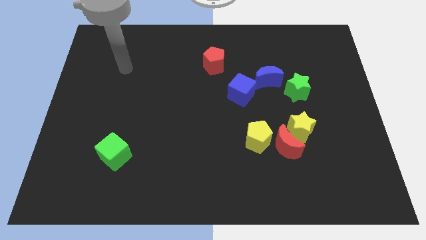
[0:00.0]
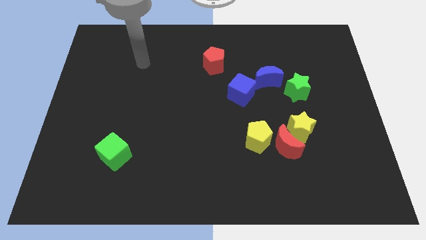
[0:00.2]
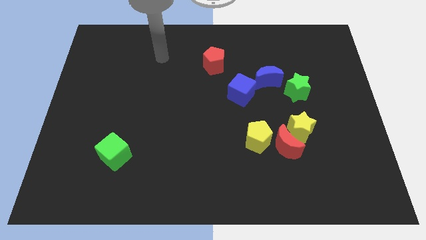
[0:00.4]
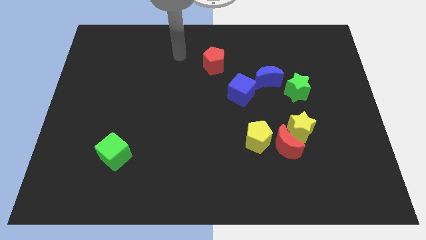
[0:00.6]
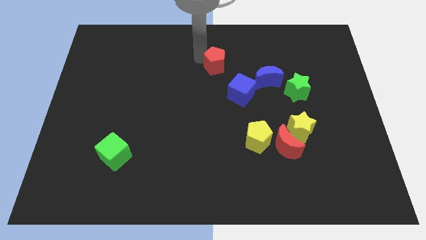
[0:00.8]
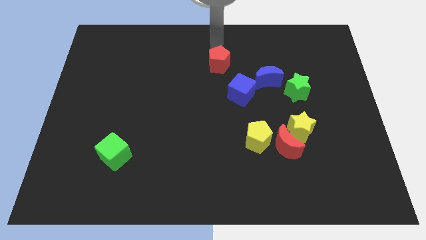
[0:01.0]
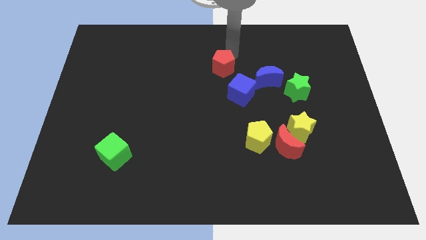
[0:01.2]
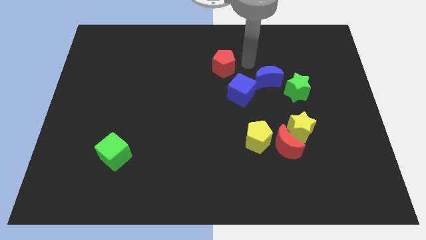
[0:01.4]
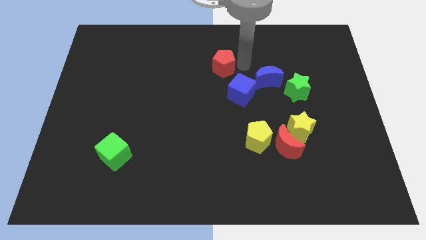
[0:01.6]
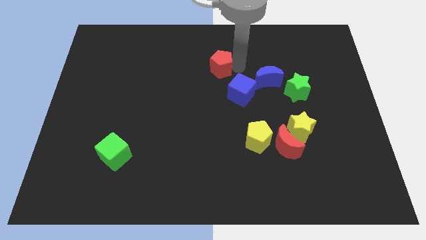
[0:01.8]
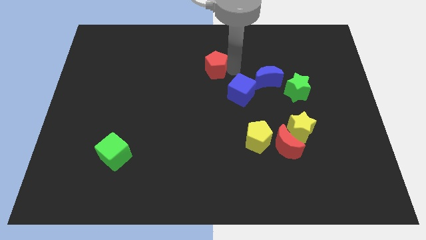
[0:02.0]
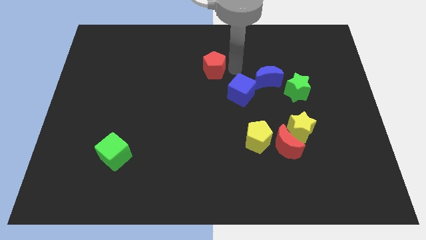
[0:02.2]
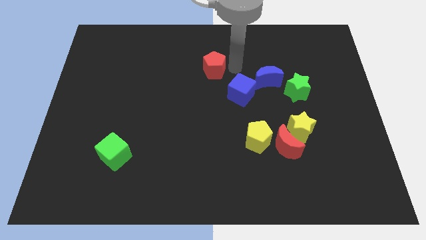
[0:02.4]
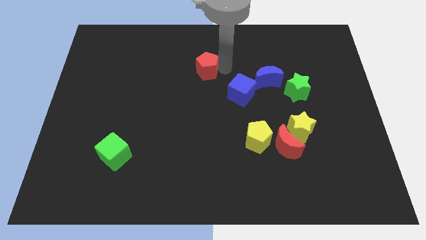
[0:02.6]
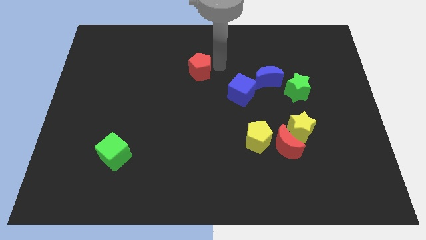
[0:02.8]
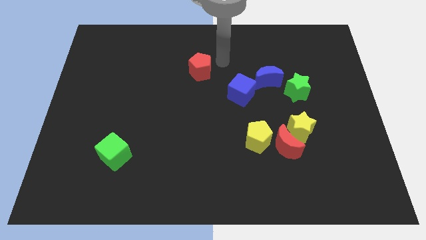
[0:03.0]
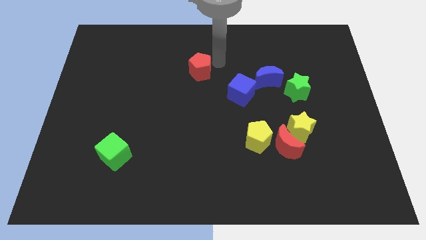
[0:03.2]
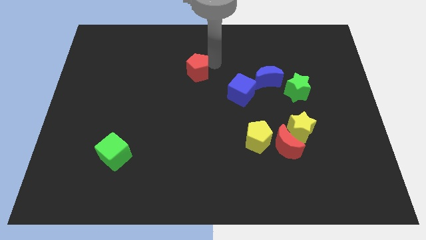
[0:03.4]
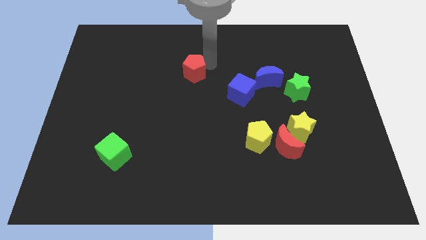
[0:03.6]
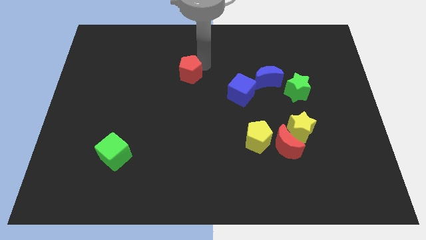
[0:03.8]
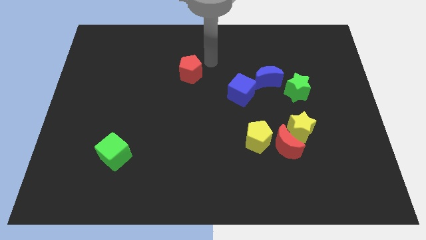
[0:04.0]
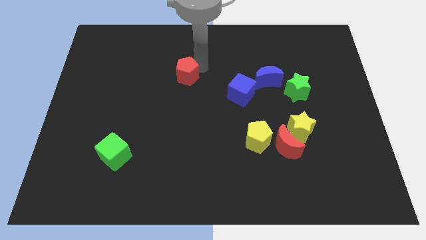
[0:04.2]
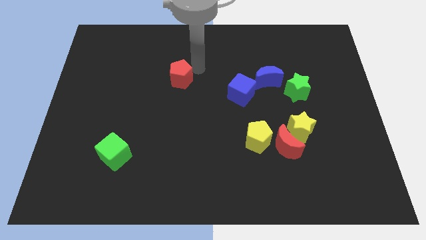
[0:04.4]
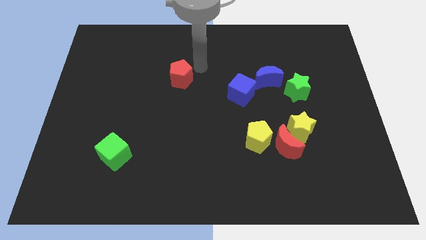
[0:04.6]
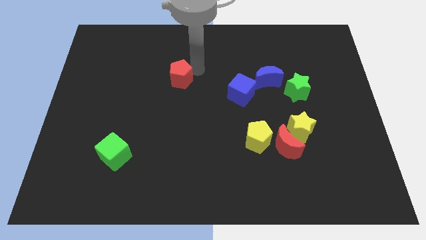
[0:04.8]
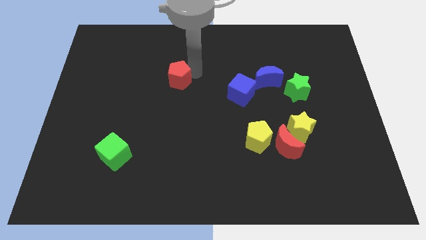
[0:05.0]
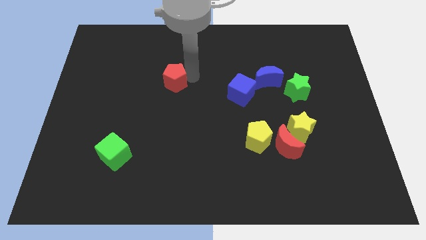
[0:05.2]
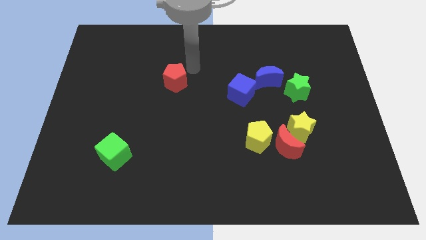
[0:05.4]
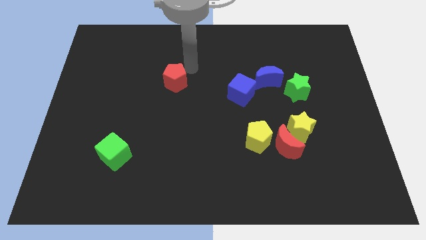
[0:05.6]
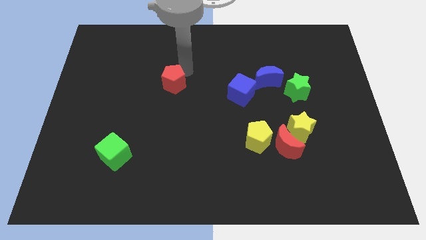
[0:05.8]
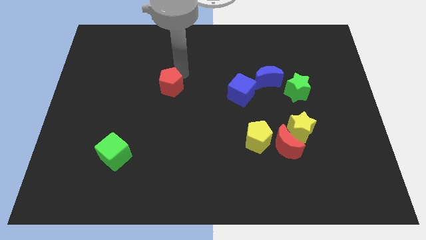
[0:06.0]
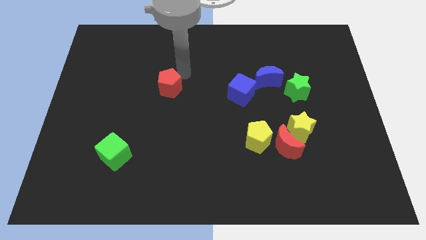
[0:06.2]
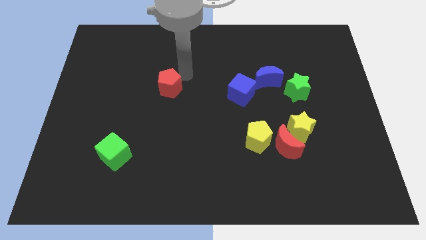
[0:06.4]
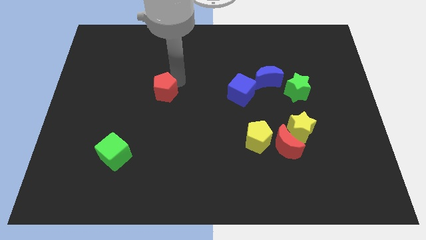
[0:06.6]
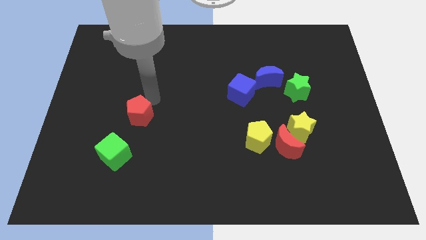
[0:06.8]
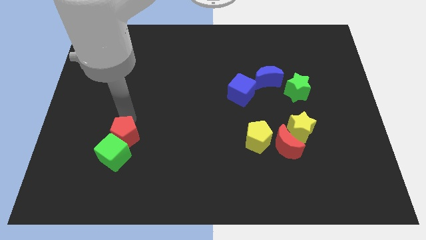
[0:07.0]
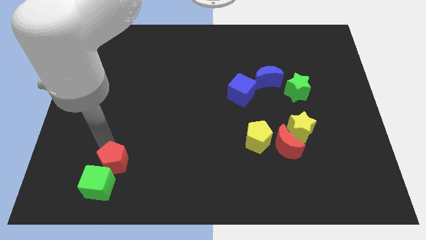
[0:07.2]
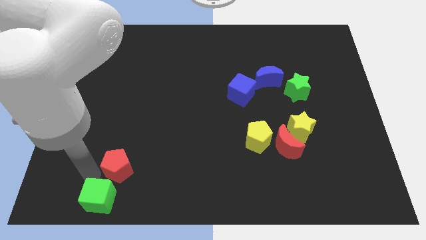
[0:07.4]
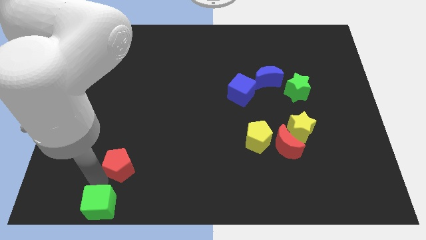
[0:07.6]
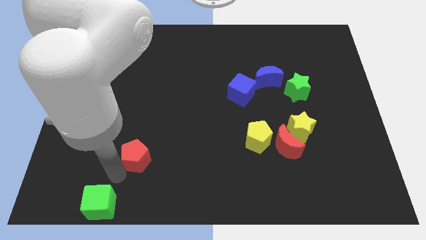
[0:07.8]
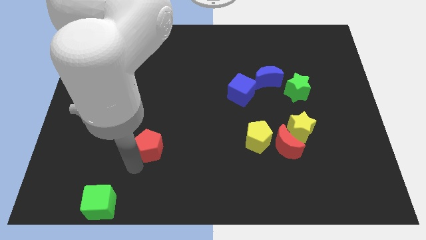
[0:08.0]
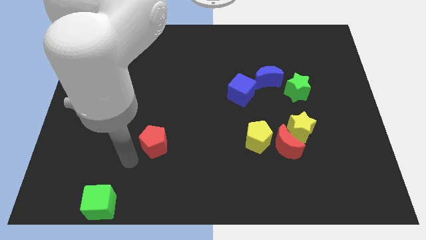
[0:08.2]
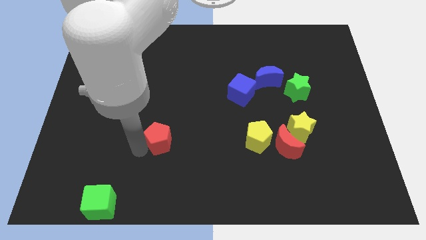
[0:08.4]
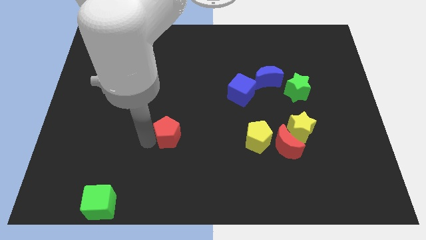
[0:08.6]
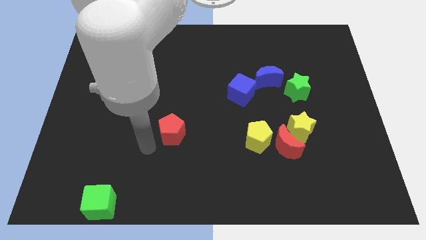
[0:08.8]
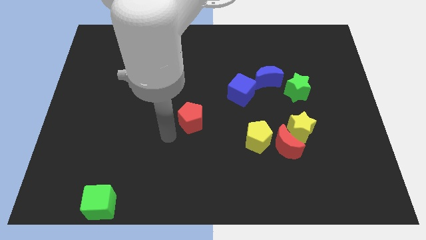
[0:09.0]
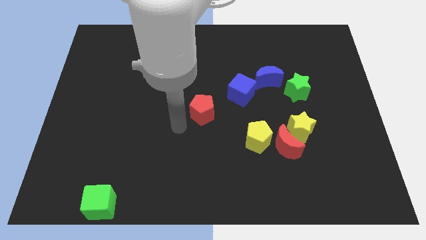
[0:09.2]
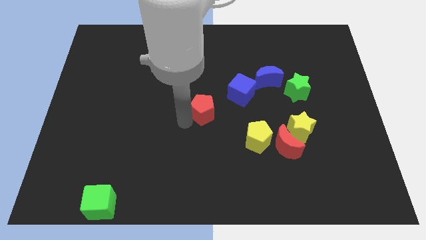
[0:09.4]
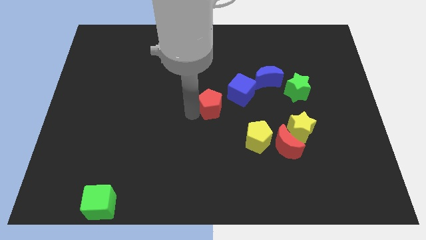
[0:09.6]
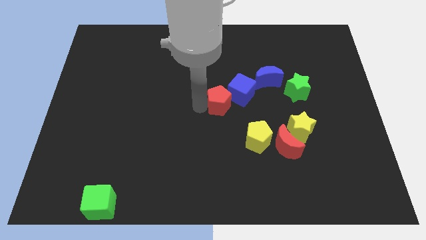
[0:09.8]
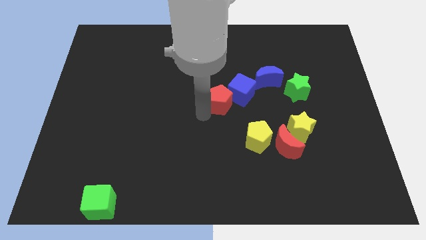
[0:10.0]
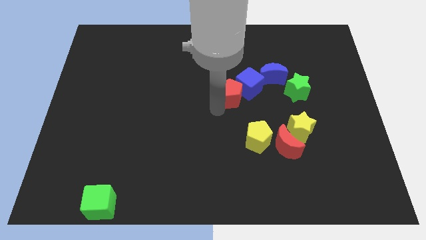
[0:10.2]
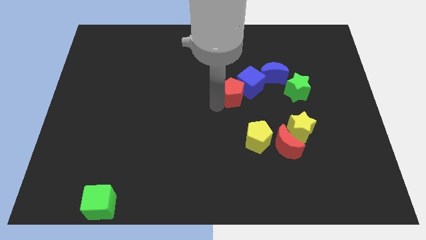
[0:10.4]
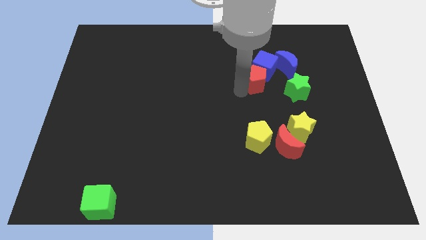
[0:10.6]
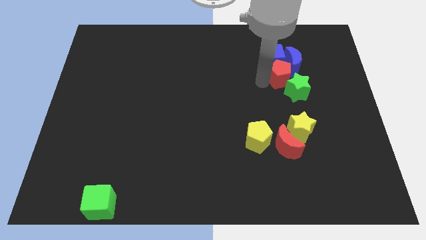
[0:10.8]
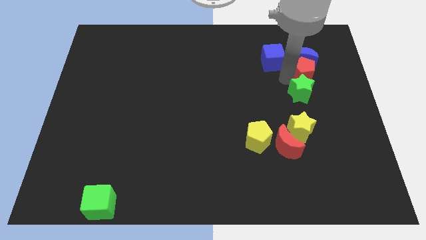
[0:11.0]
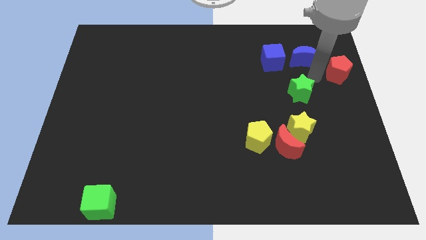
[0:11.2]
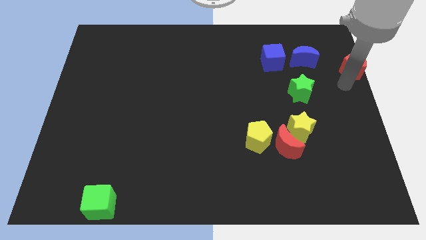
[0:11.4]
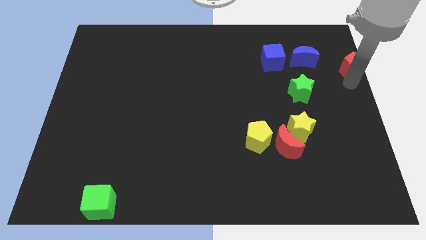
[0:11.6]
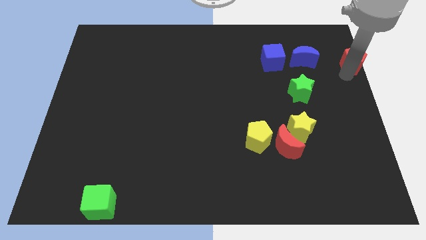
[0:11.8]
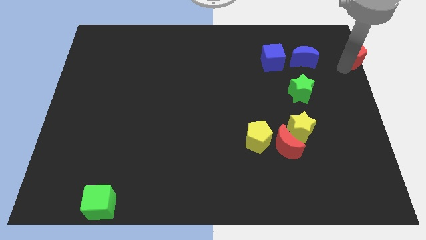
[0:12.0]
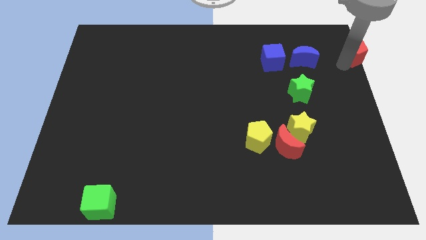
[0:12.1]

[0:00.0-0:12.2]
push the red pentagon to the top right of the board

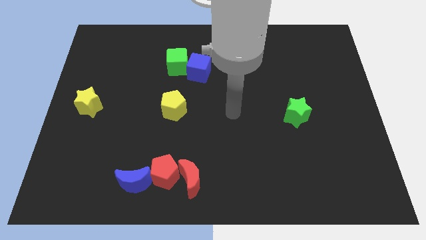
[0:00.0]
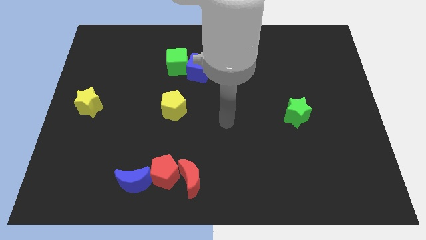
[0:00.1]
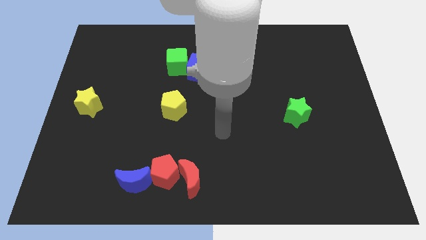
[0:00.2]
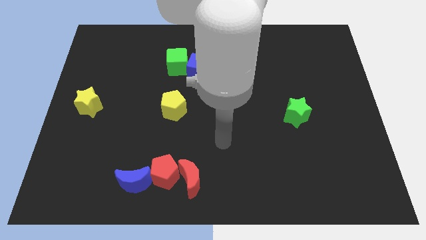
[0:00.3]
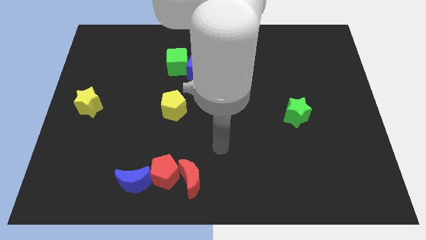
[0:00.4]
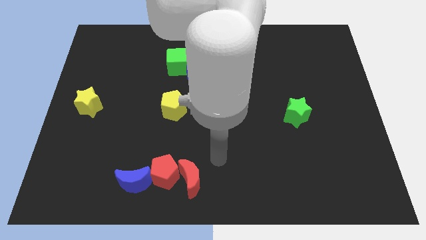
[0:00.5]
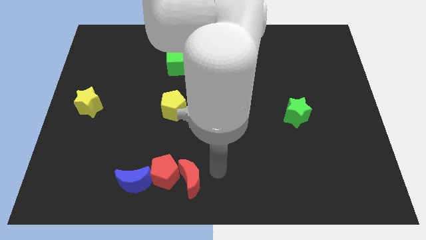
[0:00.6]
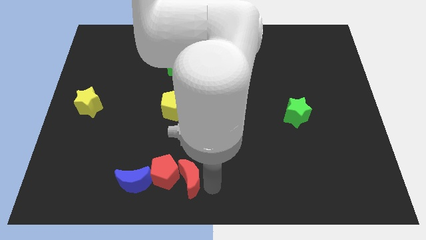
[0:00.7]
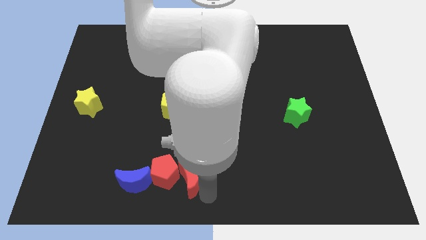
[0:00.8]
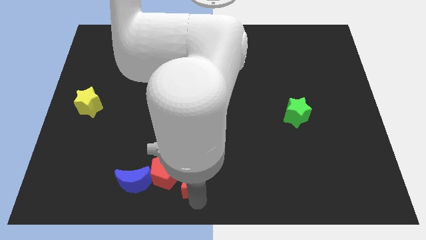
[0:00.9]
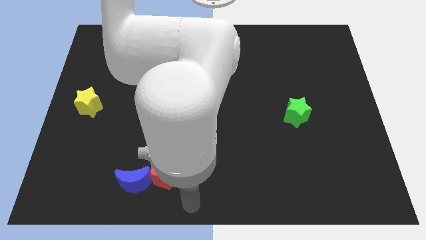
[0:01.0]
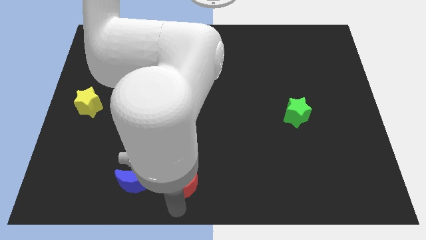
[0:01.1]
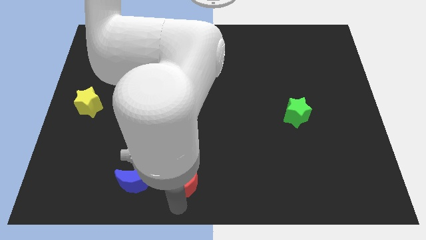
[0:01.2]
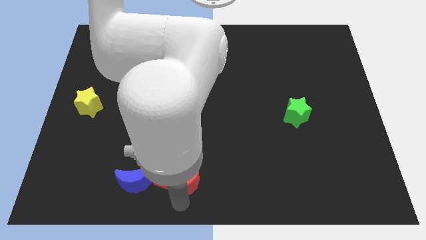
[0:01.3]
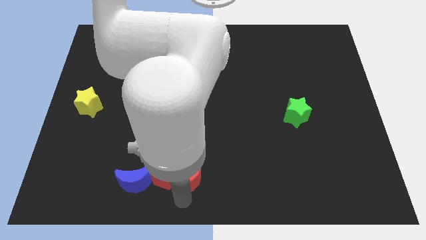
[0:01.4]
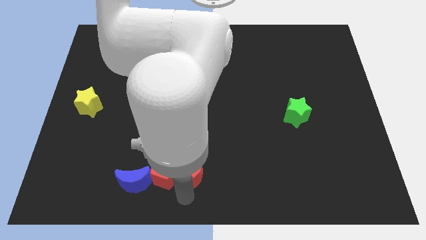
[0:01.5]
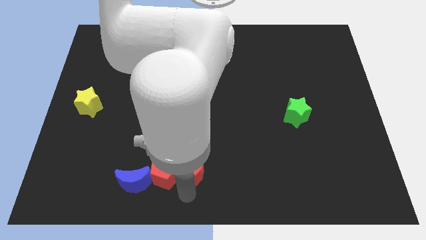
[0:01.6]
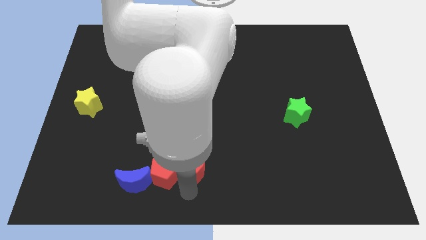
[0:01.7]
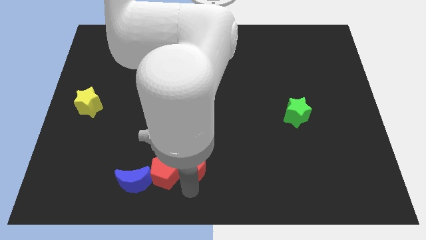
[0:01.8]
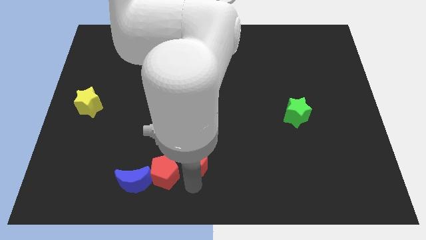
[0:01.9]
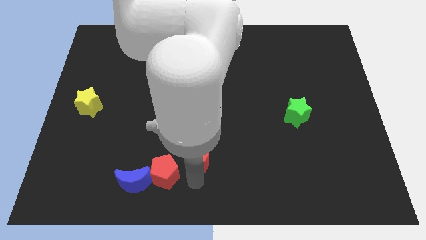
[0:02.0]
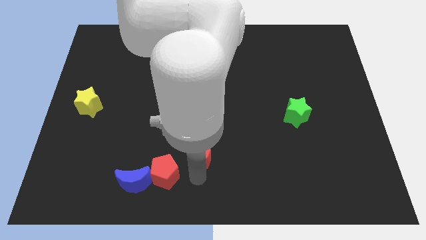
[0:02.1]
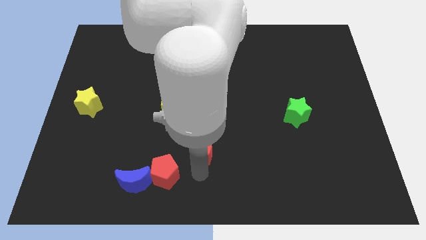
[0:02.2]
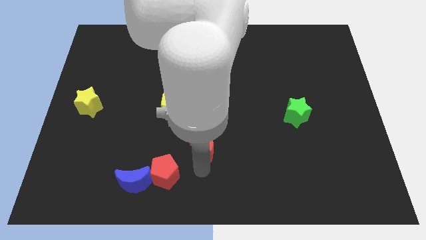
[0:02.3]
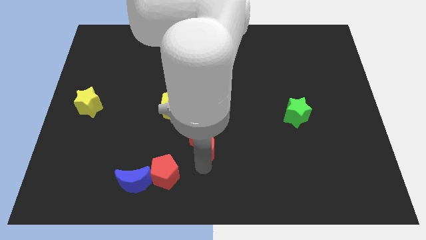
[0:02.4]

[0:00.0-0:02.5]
put the red moon to the middle of the board
